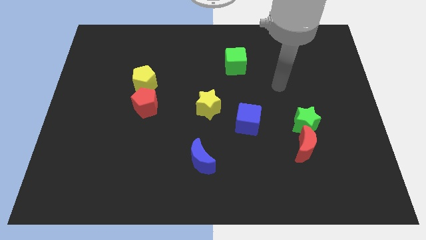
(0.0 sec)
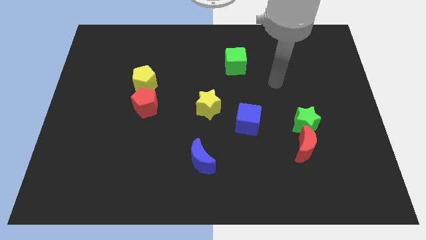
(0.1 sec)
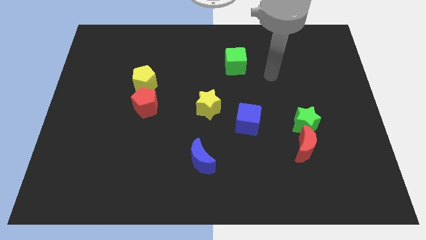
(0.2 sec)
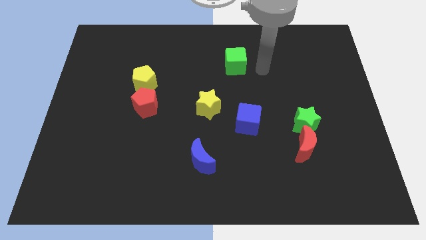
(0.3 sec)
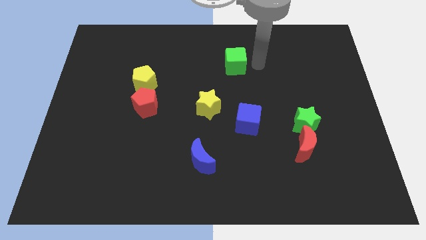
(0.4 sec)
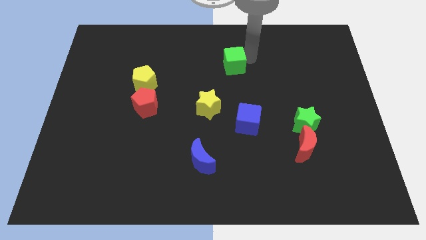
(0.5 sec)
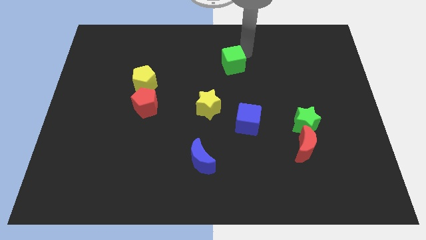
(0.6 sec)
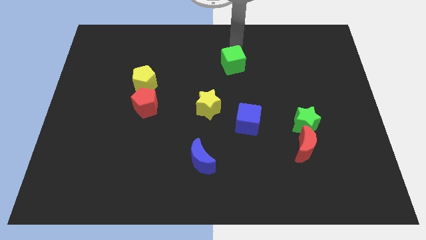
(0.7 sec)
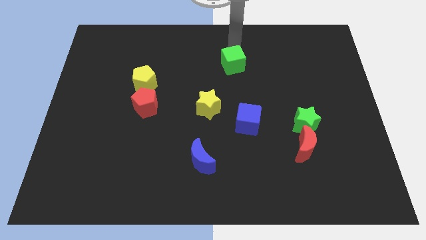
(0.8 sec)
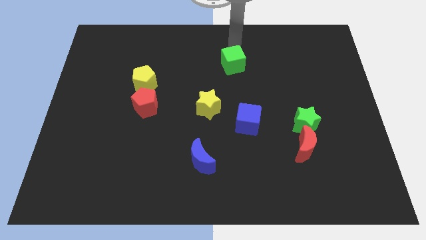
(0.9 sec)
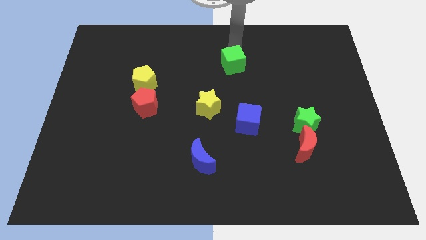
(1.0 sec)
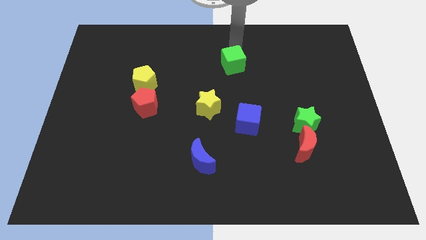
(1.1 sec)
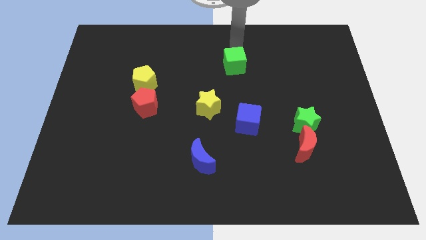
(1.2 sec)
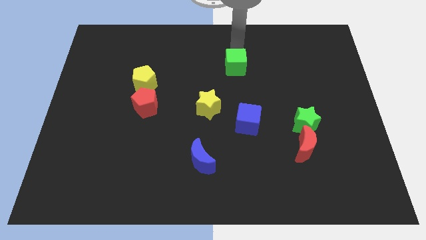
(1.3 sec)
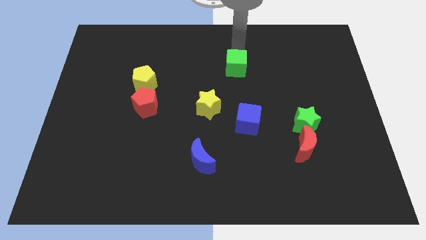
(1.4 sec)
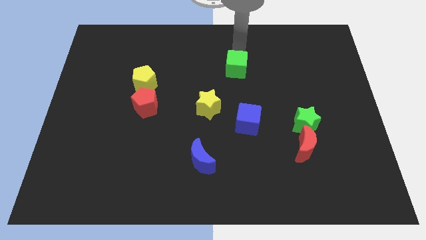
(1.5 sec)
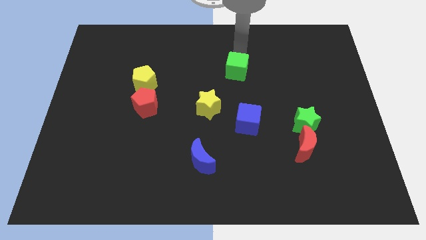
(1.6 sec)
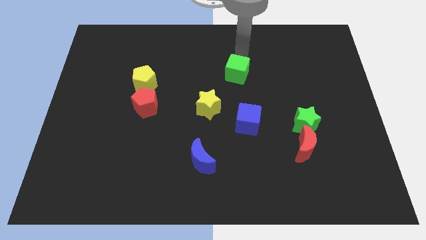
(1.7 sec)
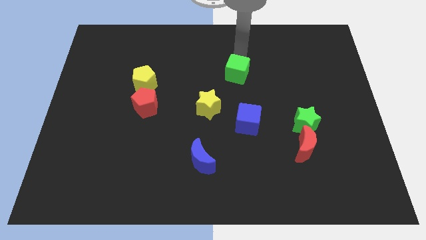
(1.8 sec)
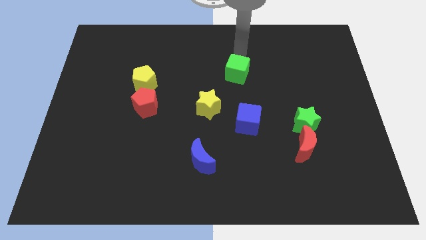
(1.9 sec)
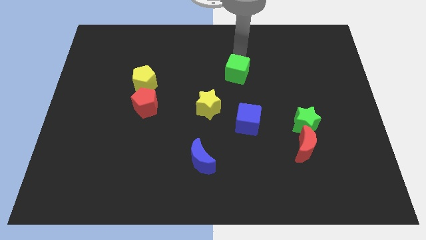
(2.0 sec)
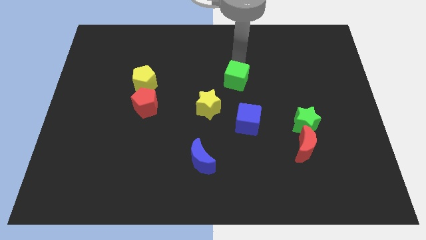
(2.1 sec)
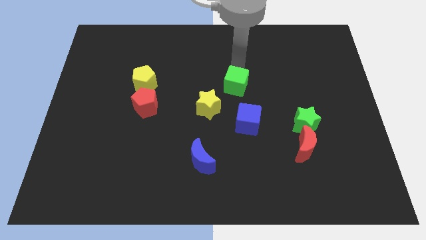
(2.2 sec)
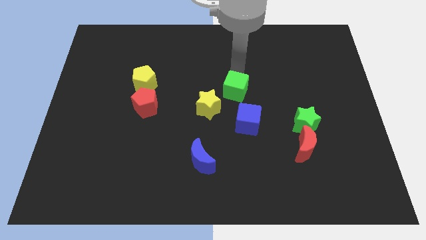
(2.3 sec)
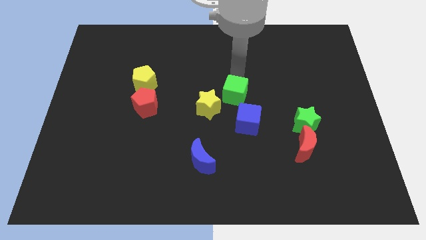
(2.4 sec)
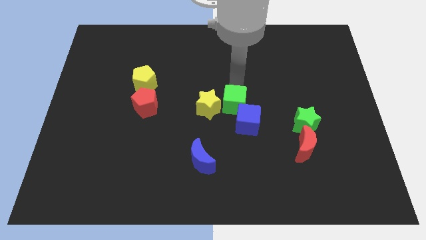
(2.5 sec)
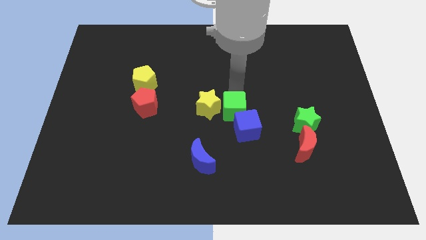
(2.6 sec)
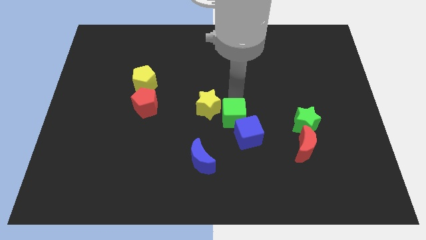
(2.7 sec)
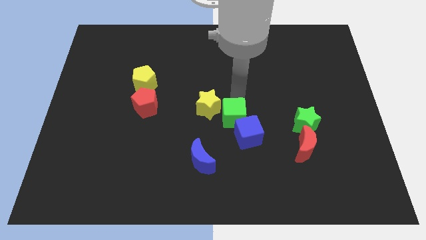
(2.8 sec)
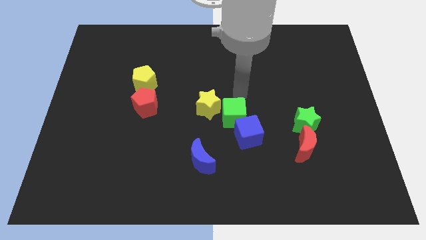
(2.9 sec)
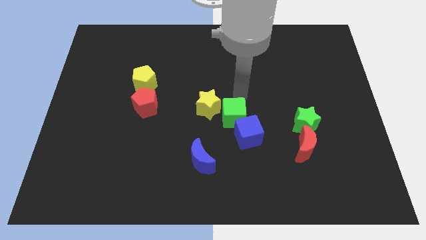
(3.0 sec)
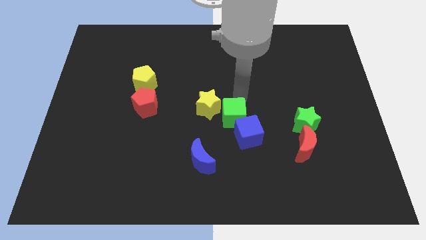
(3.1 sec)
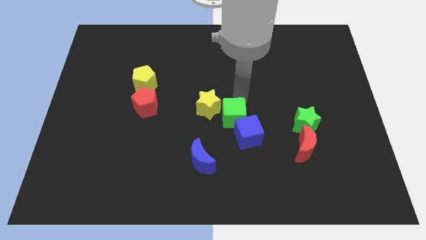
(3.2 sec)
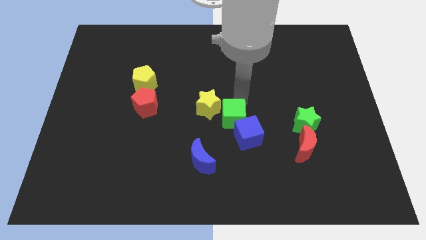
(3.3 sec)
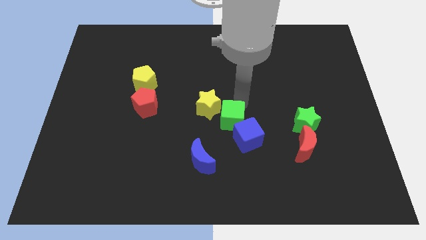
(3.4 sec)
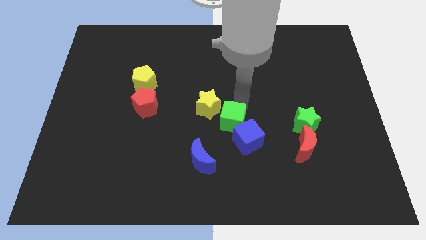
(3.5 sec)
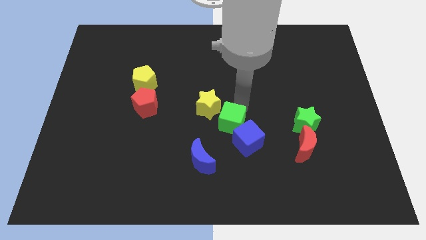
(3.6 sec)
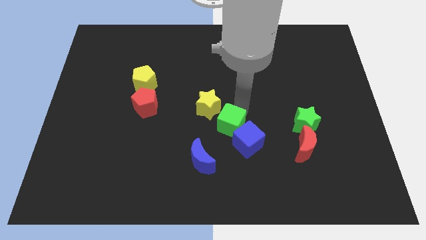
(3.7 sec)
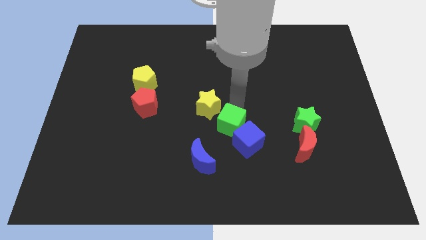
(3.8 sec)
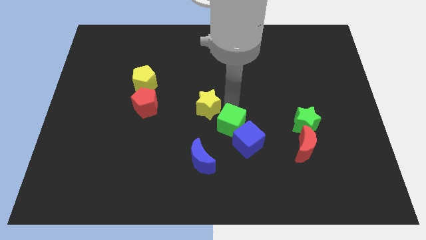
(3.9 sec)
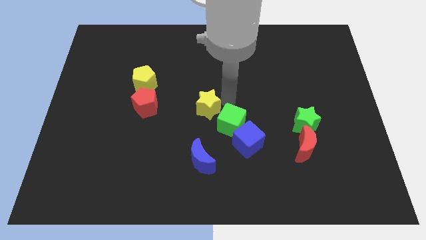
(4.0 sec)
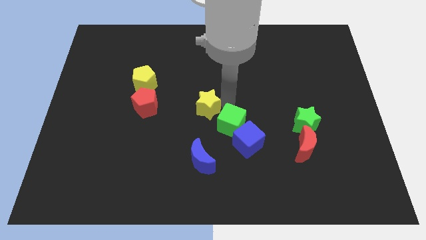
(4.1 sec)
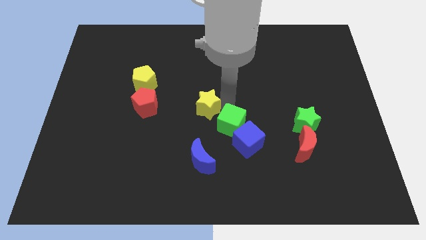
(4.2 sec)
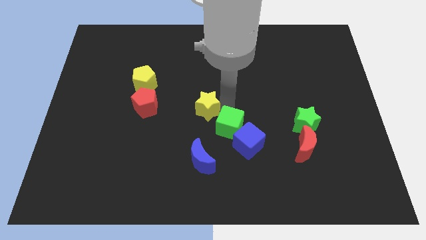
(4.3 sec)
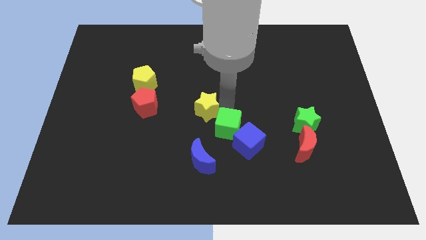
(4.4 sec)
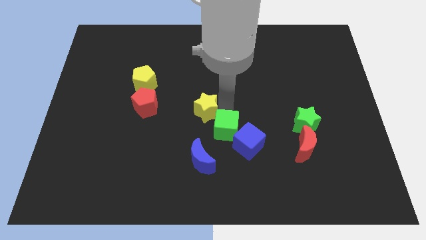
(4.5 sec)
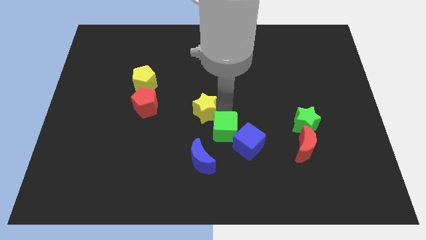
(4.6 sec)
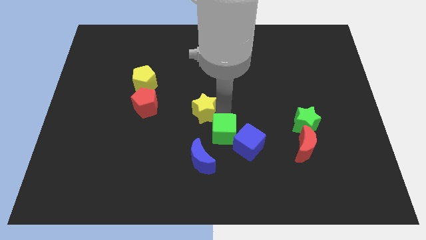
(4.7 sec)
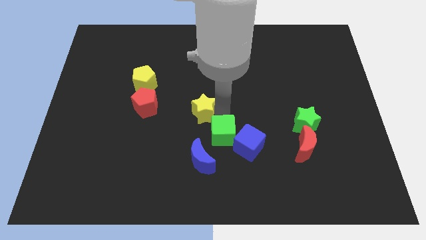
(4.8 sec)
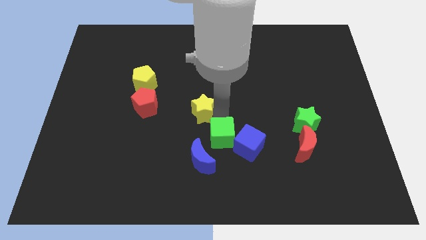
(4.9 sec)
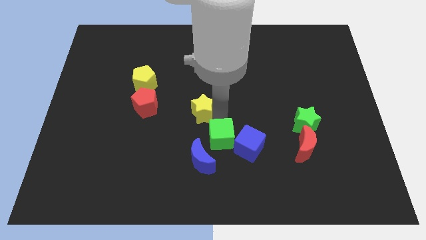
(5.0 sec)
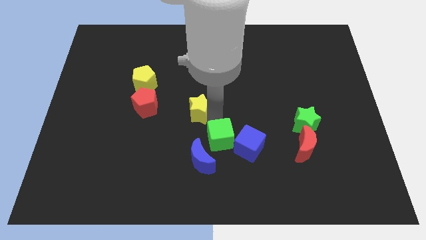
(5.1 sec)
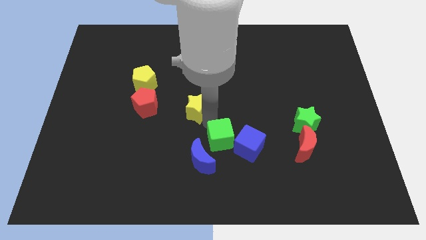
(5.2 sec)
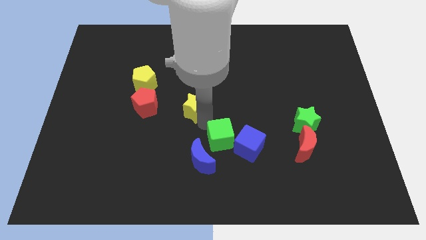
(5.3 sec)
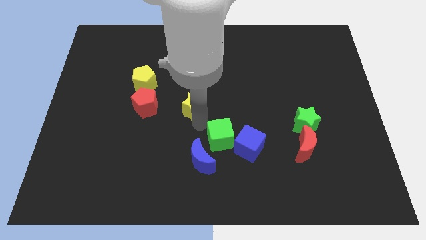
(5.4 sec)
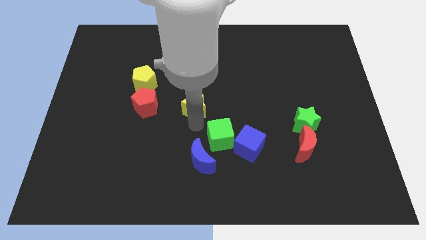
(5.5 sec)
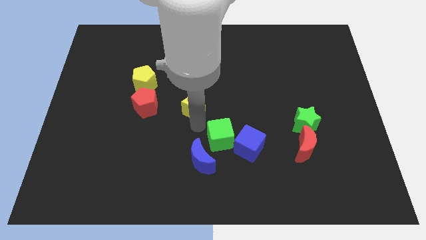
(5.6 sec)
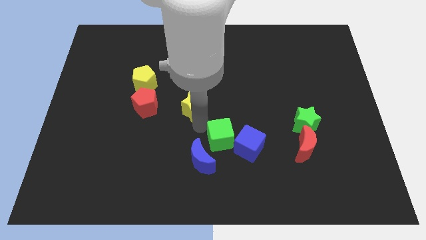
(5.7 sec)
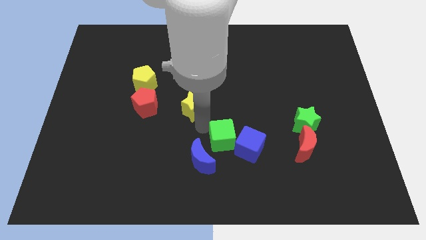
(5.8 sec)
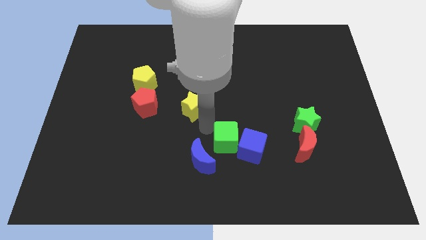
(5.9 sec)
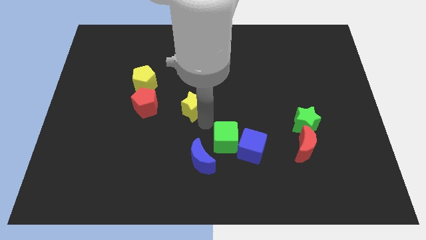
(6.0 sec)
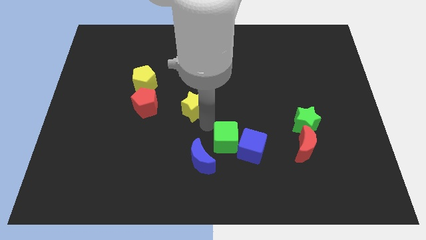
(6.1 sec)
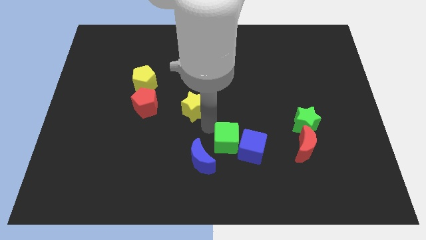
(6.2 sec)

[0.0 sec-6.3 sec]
push the green cube to the right of the blue moon

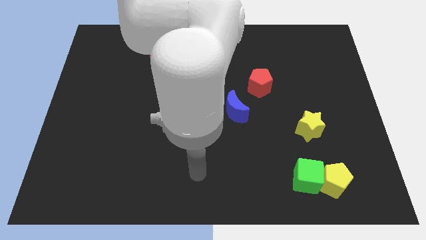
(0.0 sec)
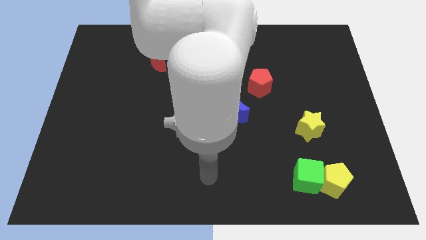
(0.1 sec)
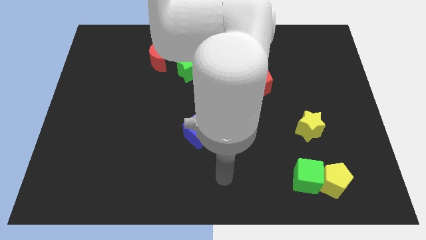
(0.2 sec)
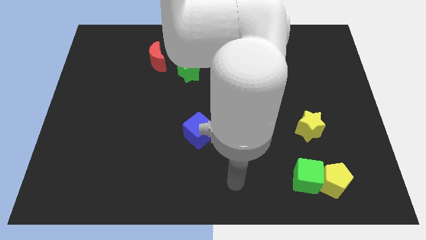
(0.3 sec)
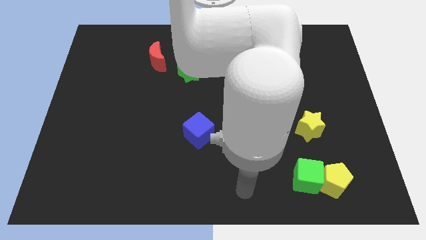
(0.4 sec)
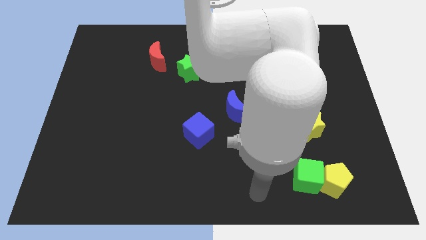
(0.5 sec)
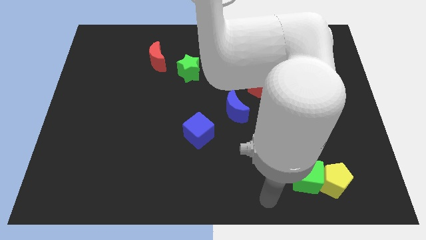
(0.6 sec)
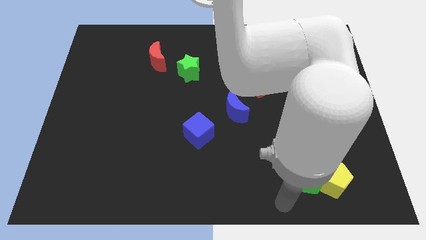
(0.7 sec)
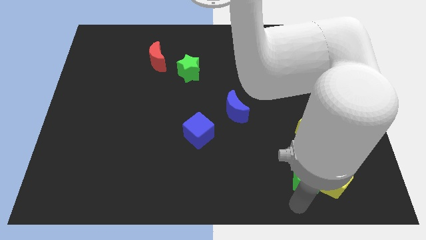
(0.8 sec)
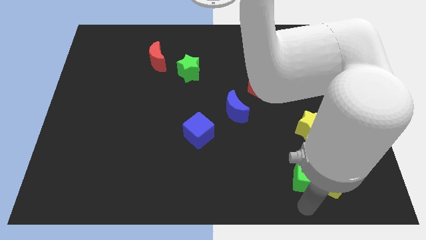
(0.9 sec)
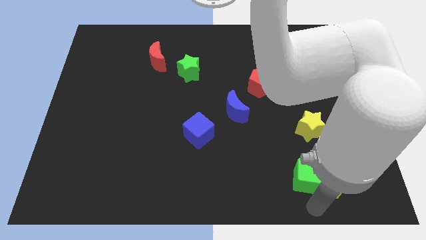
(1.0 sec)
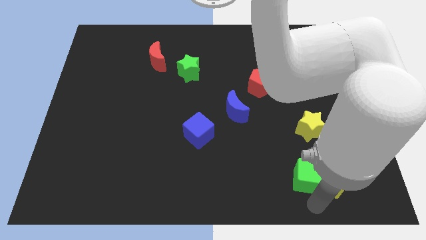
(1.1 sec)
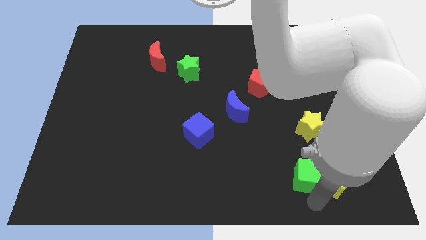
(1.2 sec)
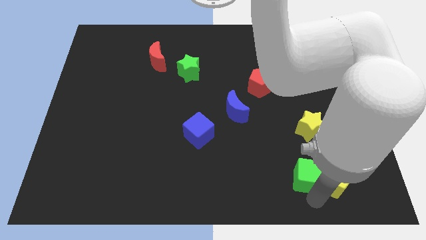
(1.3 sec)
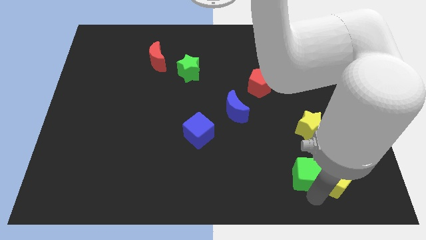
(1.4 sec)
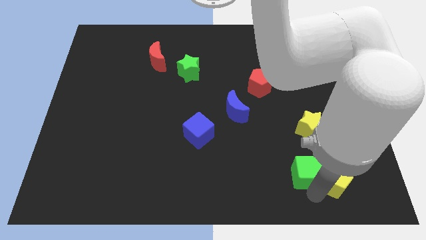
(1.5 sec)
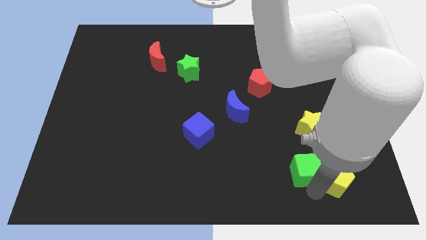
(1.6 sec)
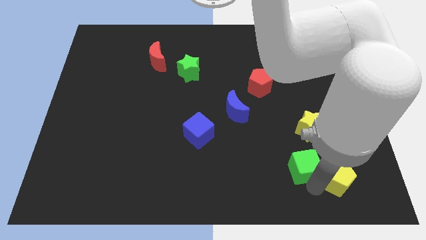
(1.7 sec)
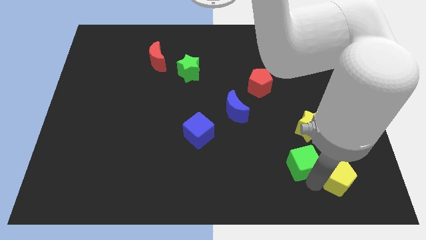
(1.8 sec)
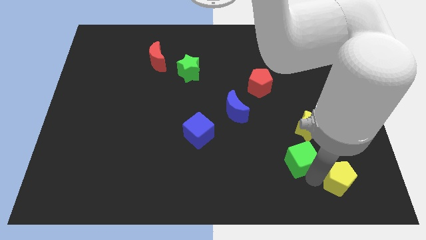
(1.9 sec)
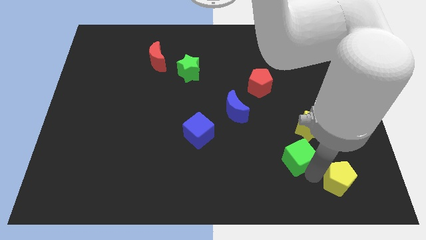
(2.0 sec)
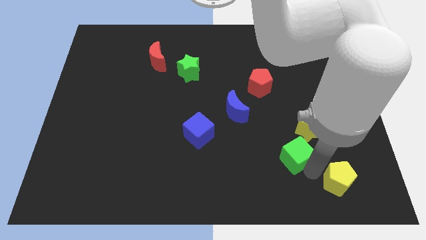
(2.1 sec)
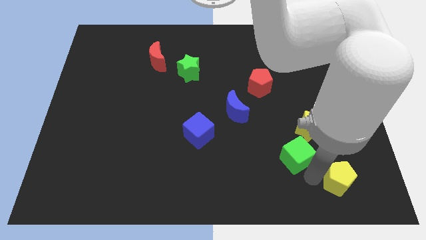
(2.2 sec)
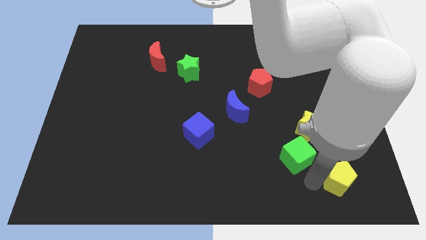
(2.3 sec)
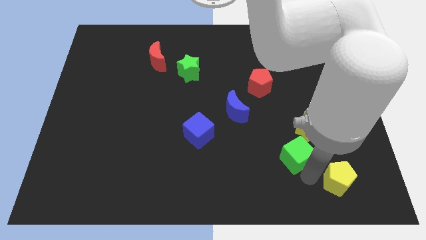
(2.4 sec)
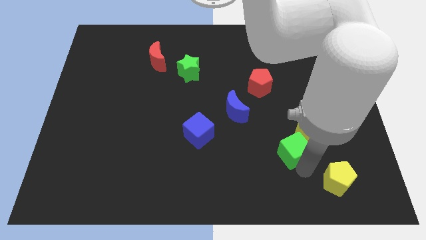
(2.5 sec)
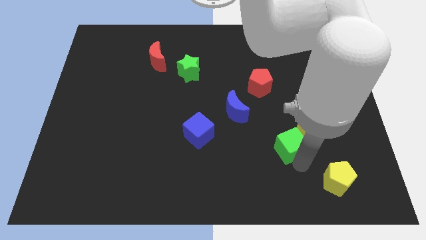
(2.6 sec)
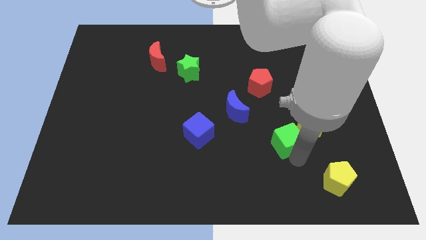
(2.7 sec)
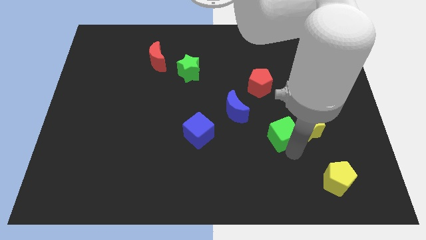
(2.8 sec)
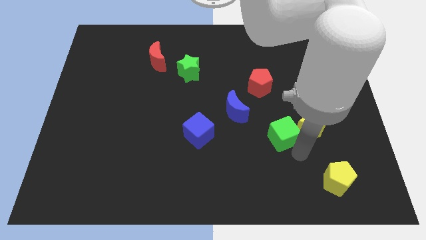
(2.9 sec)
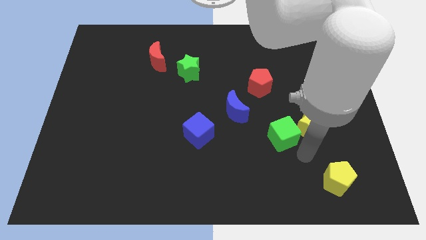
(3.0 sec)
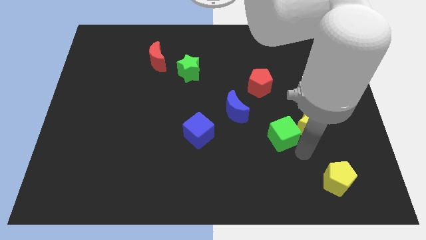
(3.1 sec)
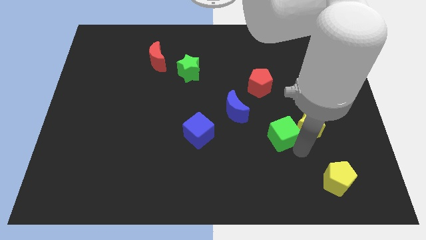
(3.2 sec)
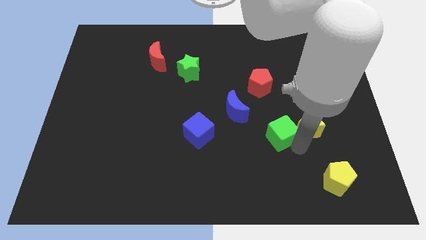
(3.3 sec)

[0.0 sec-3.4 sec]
put the green cube below the red pentagon
